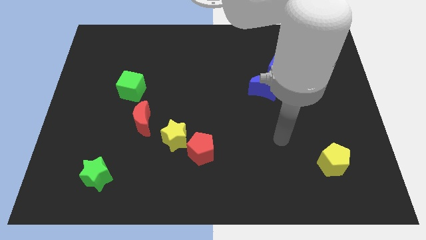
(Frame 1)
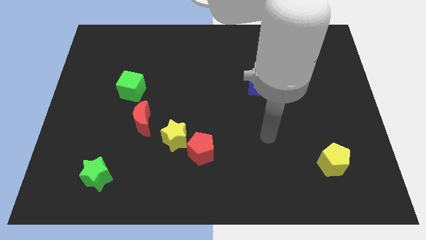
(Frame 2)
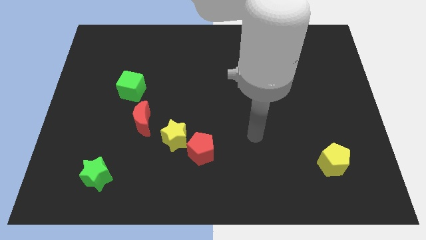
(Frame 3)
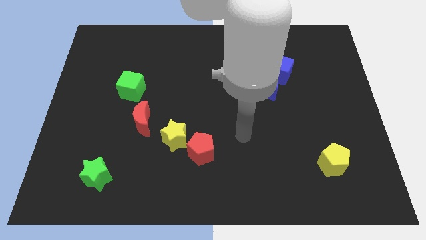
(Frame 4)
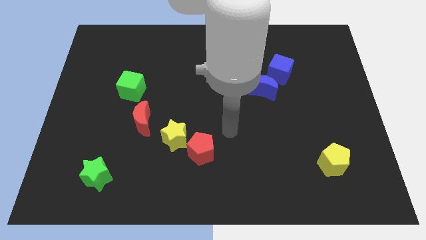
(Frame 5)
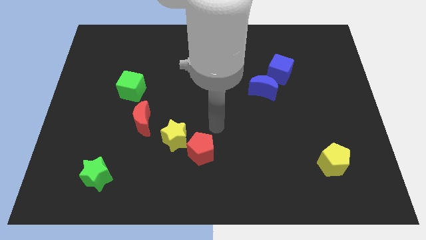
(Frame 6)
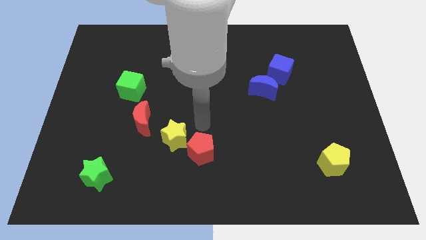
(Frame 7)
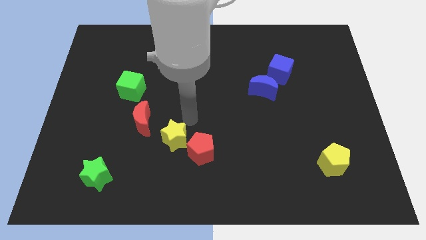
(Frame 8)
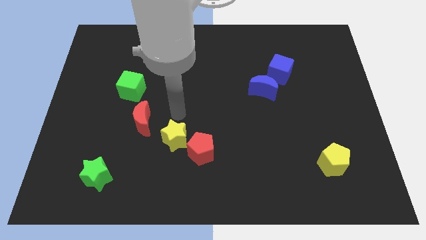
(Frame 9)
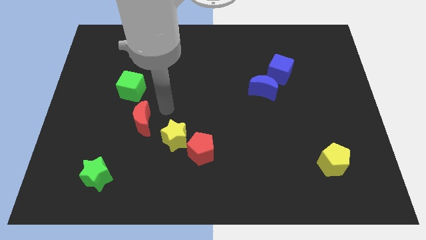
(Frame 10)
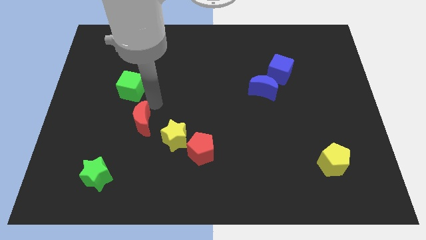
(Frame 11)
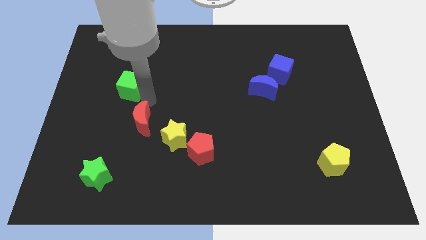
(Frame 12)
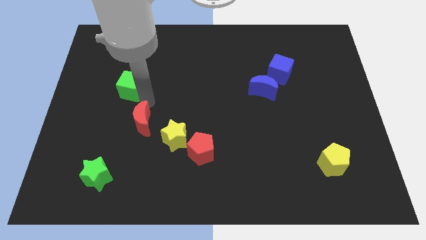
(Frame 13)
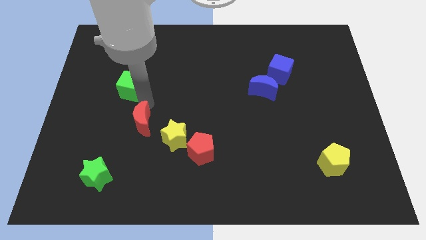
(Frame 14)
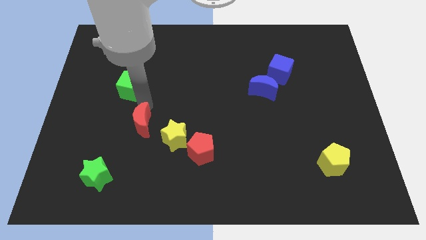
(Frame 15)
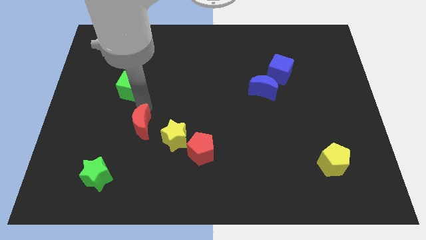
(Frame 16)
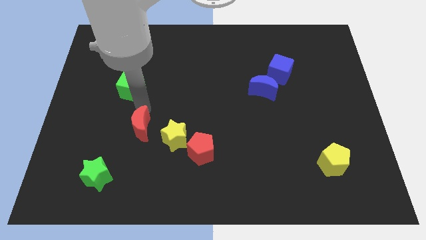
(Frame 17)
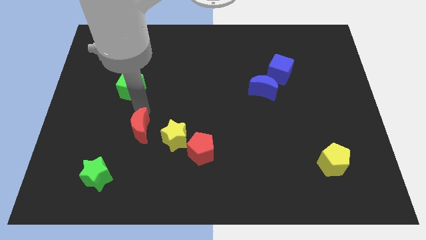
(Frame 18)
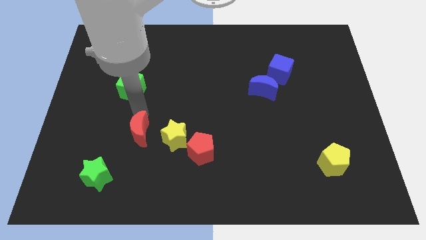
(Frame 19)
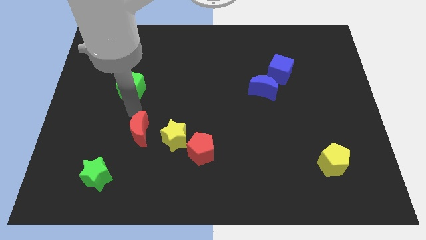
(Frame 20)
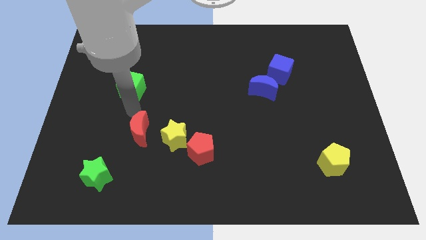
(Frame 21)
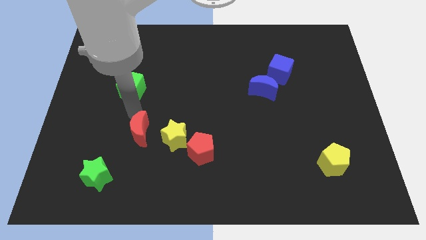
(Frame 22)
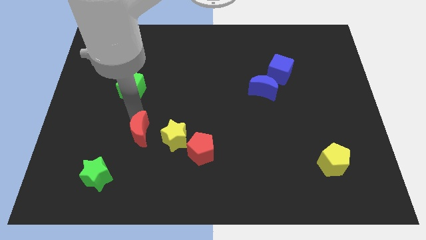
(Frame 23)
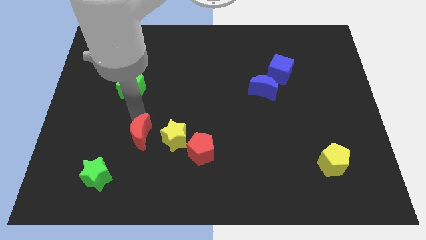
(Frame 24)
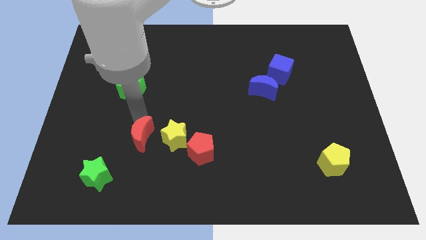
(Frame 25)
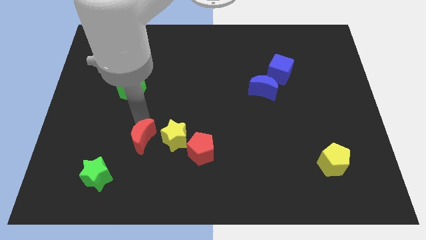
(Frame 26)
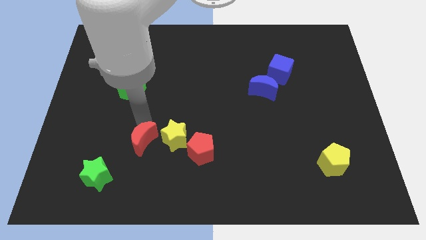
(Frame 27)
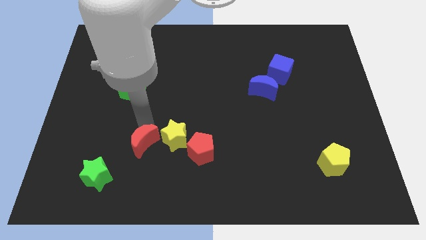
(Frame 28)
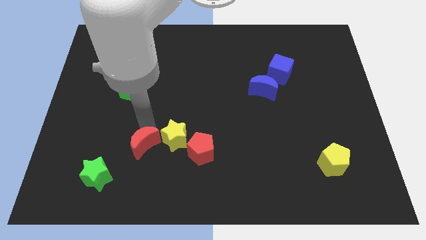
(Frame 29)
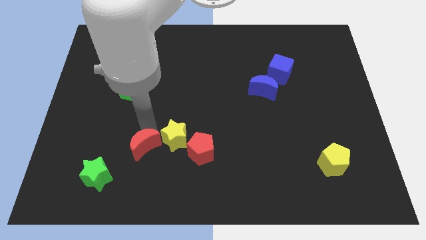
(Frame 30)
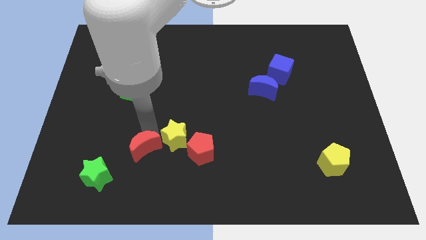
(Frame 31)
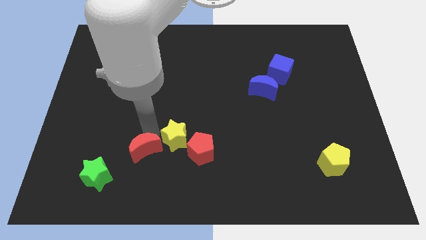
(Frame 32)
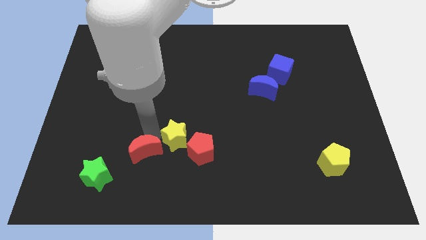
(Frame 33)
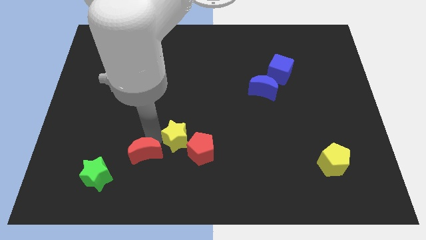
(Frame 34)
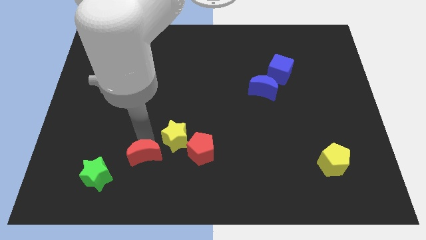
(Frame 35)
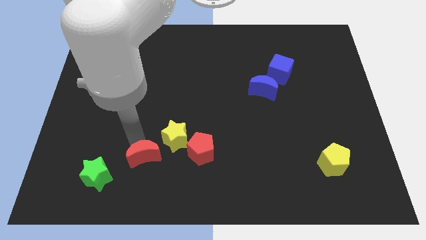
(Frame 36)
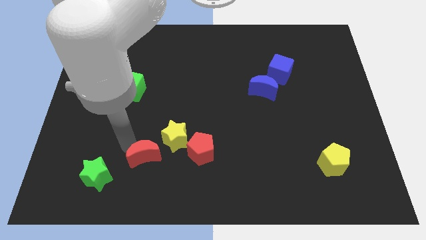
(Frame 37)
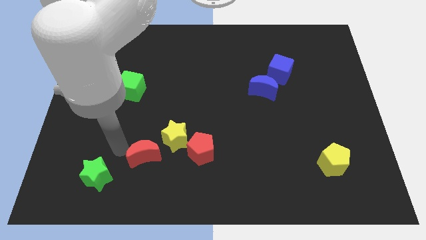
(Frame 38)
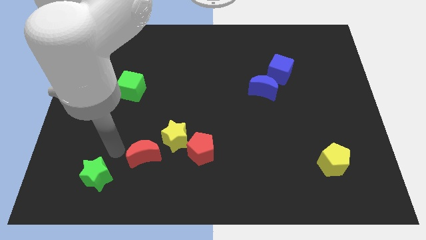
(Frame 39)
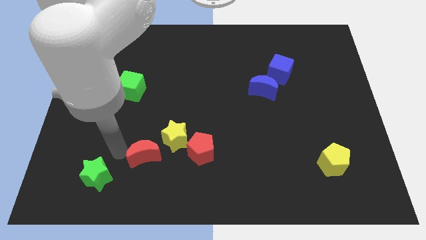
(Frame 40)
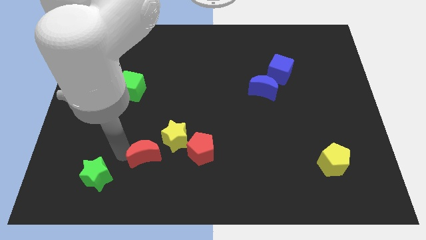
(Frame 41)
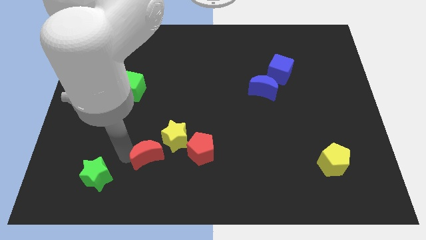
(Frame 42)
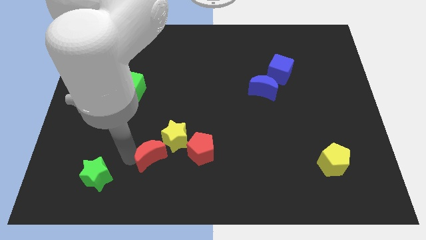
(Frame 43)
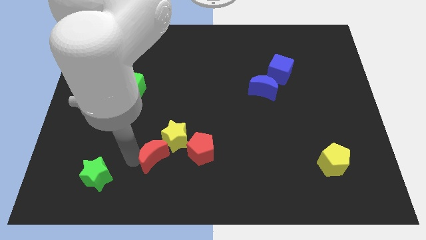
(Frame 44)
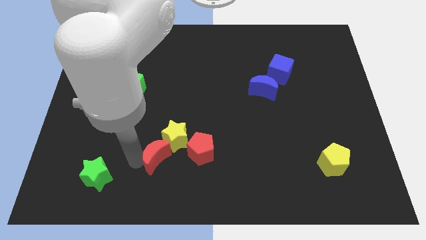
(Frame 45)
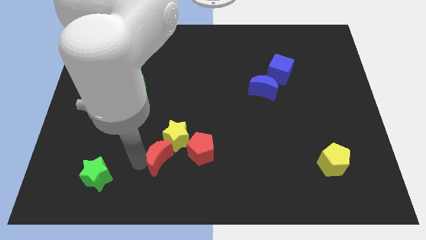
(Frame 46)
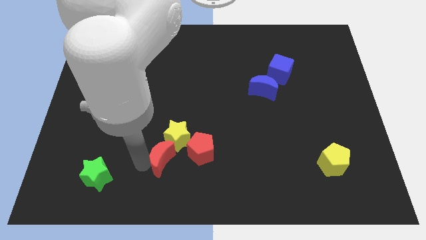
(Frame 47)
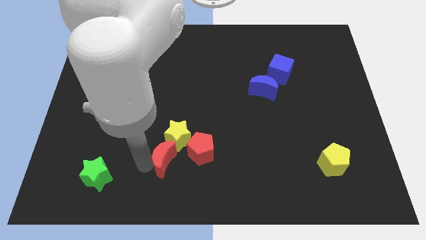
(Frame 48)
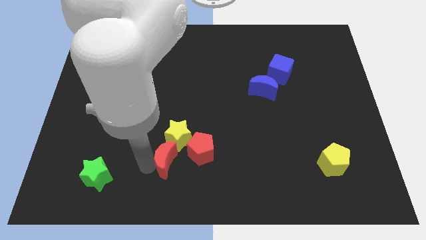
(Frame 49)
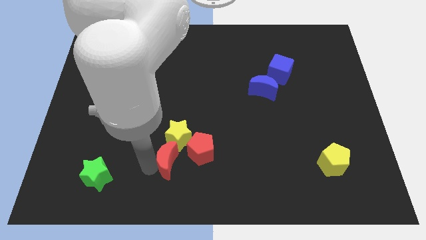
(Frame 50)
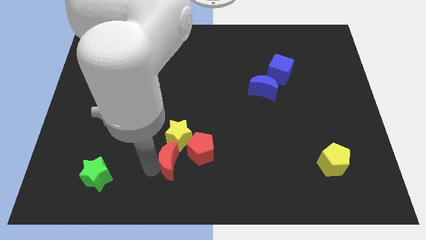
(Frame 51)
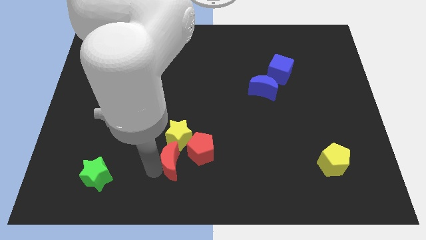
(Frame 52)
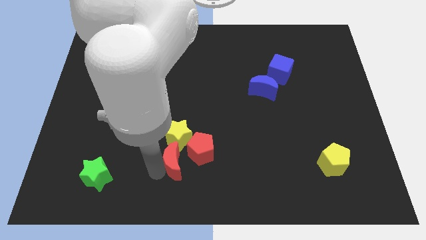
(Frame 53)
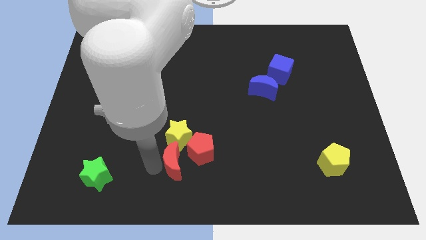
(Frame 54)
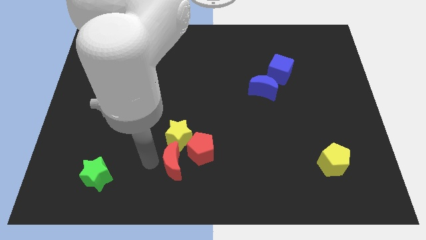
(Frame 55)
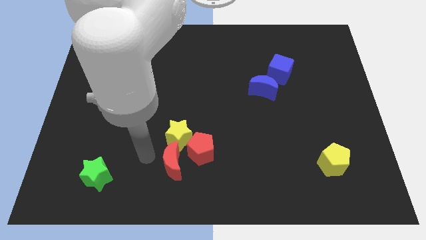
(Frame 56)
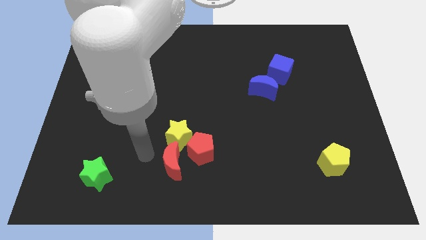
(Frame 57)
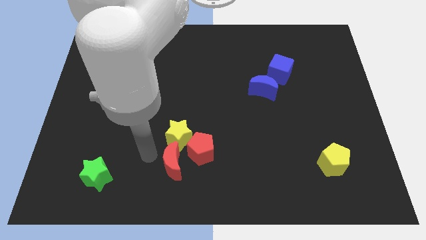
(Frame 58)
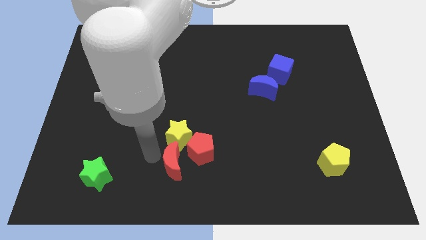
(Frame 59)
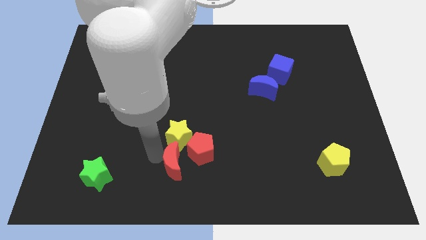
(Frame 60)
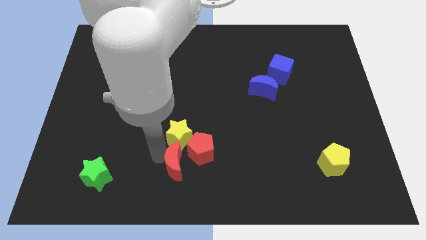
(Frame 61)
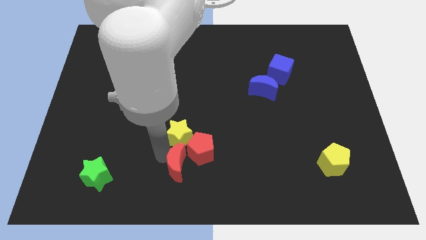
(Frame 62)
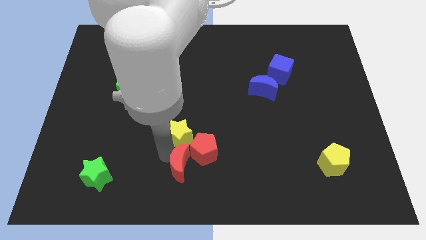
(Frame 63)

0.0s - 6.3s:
push the red moon to the bottom right side of the yellow star
